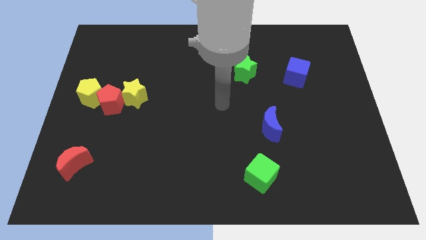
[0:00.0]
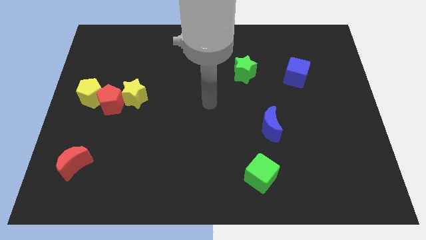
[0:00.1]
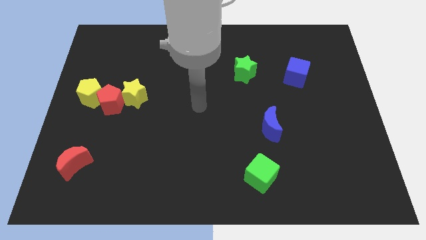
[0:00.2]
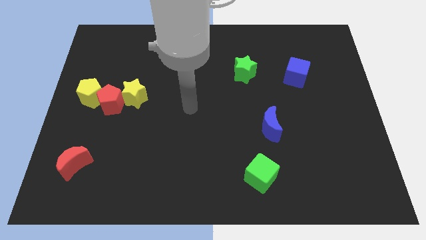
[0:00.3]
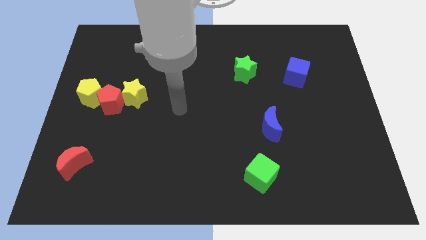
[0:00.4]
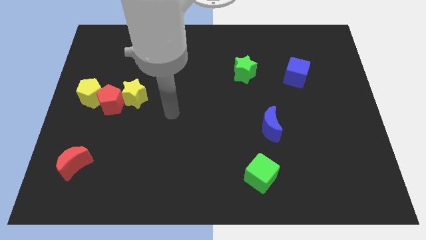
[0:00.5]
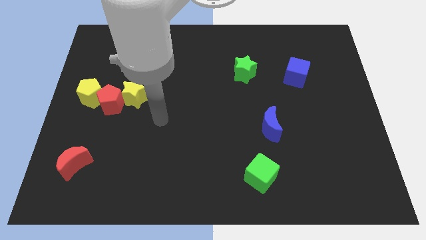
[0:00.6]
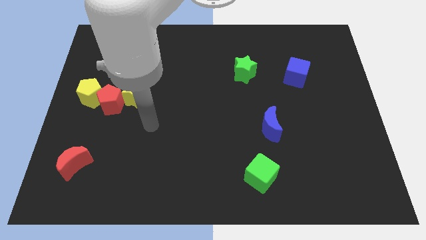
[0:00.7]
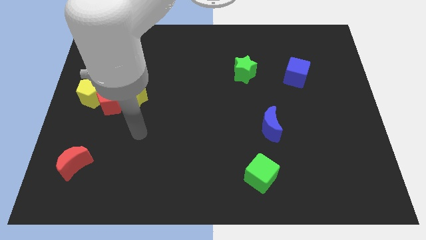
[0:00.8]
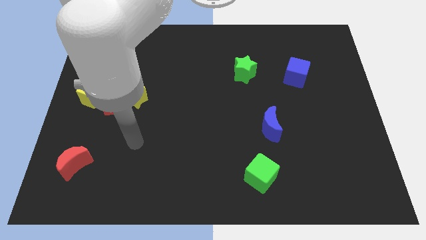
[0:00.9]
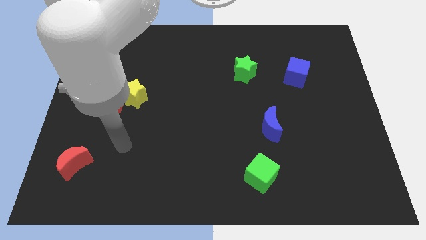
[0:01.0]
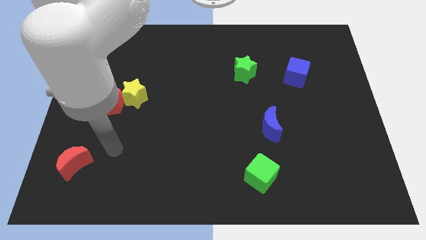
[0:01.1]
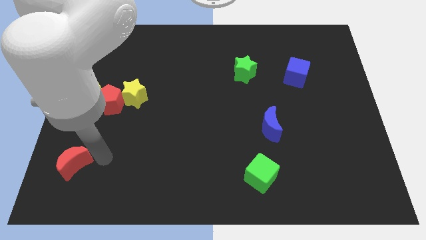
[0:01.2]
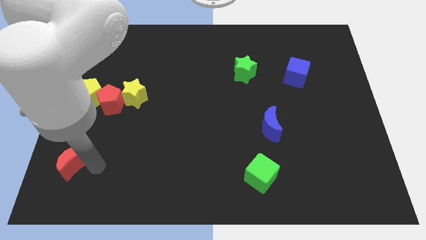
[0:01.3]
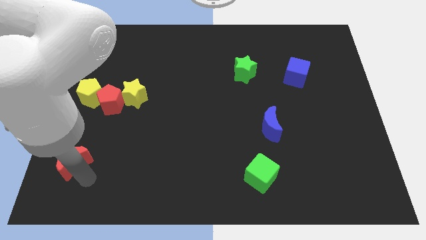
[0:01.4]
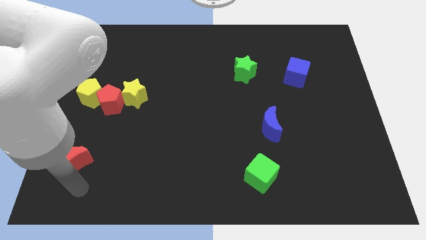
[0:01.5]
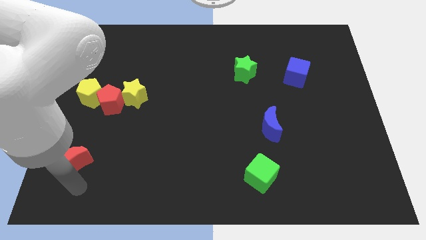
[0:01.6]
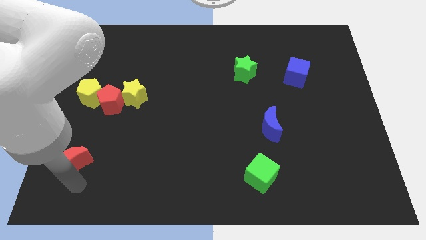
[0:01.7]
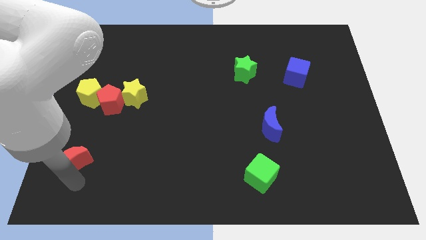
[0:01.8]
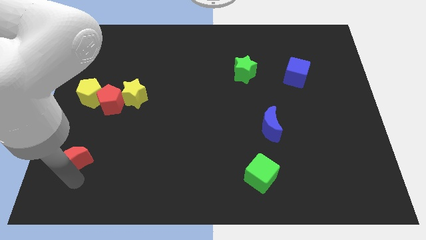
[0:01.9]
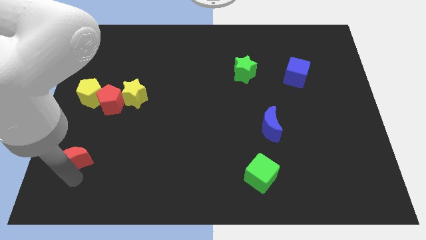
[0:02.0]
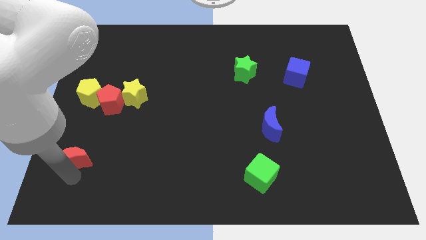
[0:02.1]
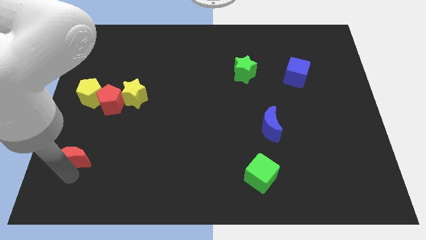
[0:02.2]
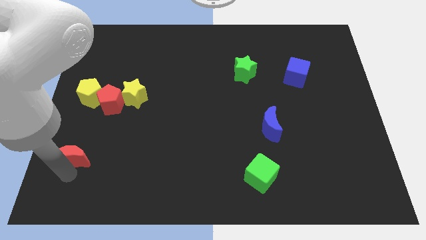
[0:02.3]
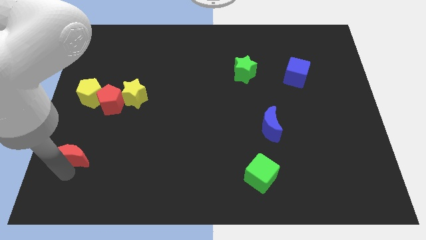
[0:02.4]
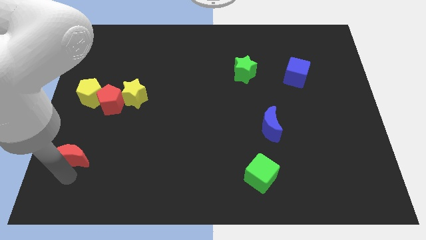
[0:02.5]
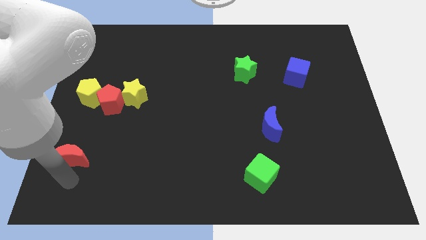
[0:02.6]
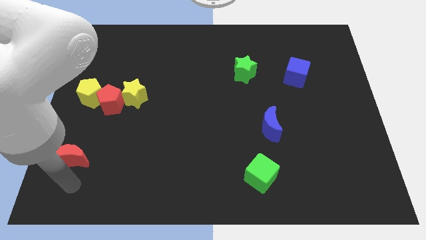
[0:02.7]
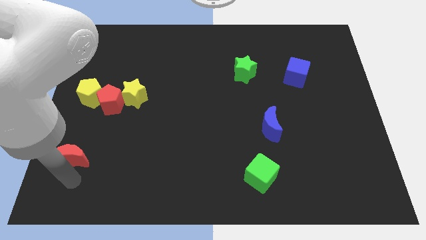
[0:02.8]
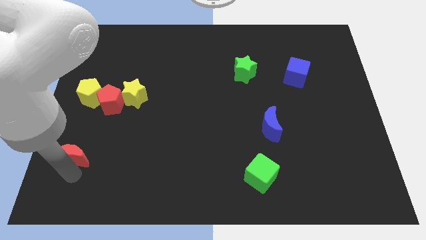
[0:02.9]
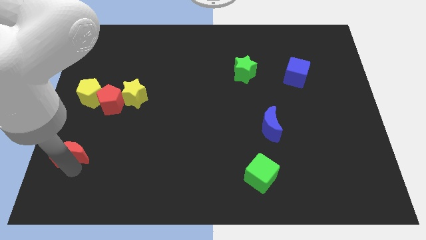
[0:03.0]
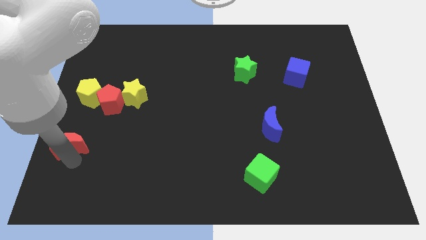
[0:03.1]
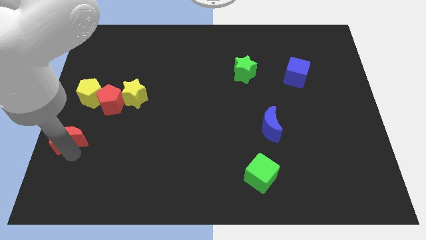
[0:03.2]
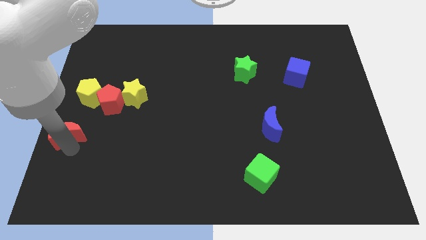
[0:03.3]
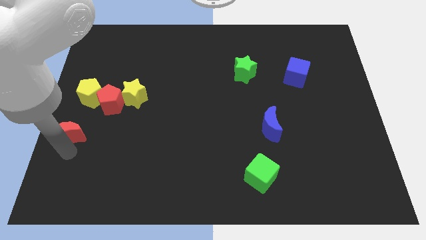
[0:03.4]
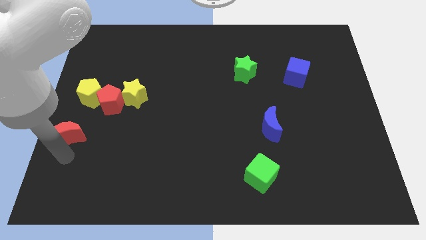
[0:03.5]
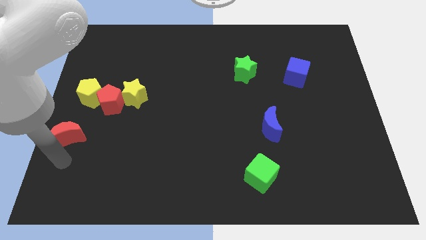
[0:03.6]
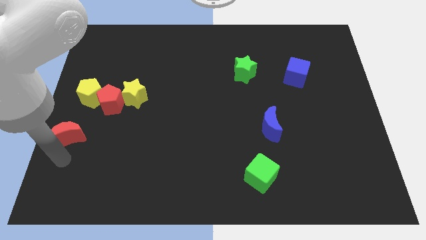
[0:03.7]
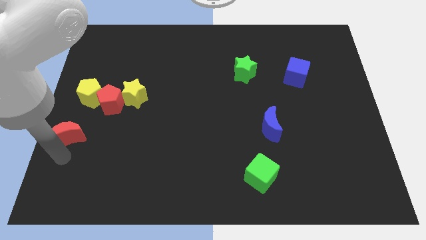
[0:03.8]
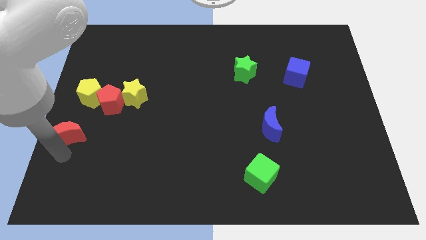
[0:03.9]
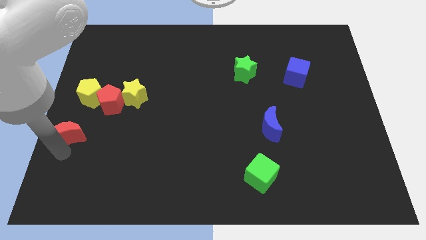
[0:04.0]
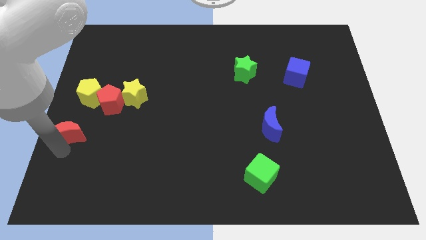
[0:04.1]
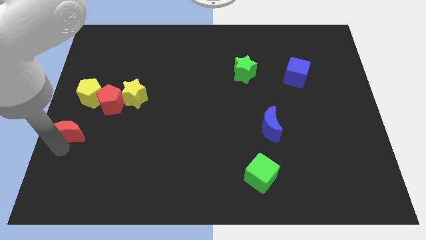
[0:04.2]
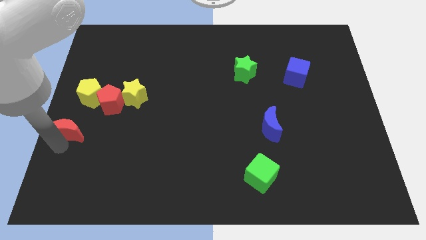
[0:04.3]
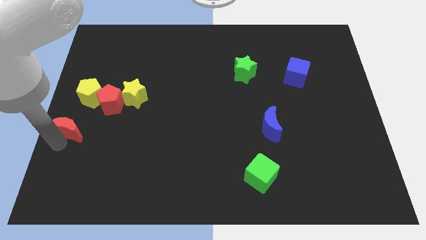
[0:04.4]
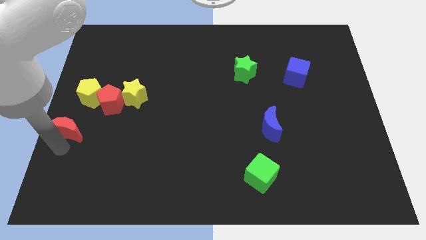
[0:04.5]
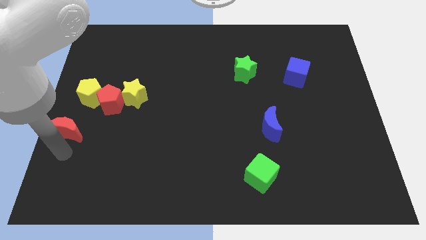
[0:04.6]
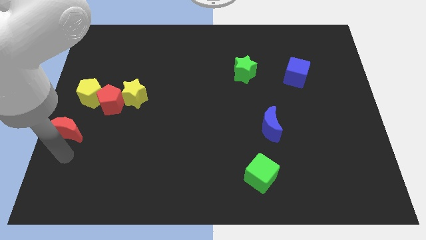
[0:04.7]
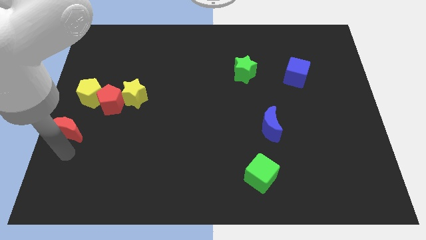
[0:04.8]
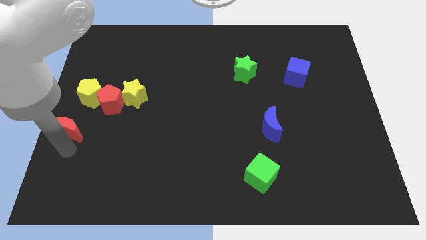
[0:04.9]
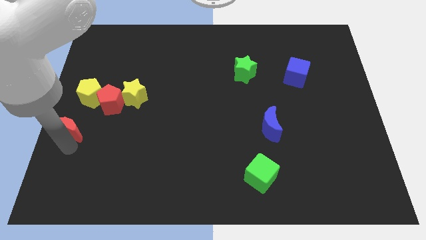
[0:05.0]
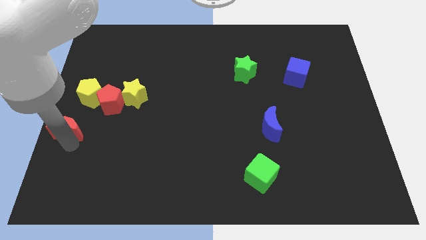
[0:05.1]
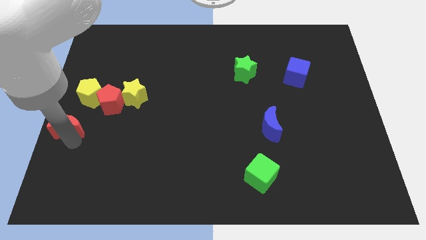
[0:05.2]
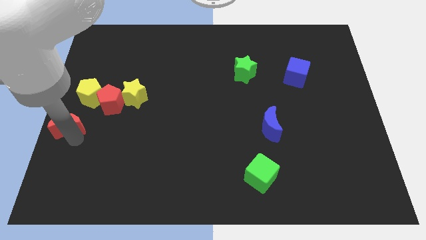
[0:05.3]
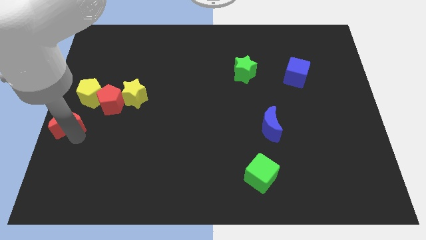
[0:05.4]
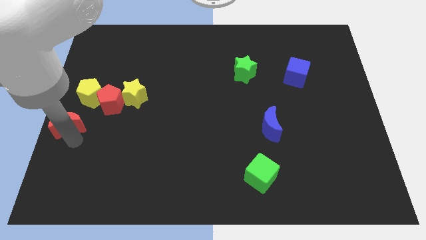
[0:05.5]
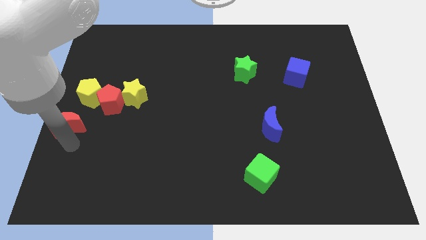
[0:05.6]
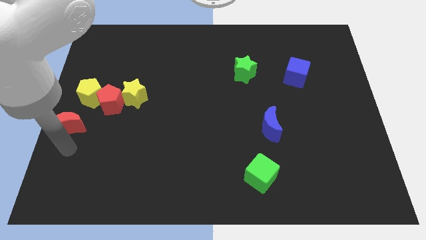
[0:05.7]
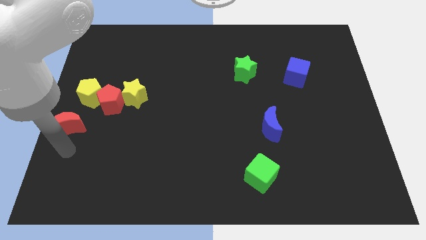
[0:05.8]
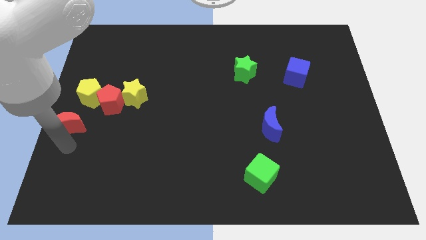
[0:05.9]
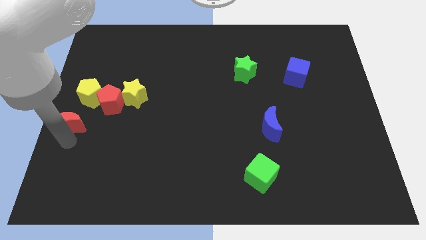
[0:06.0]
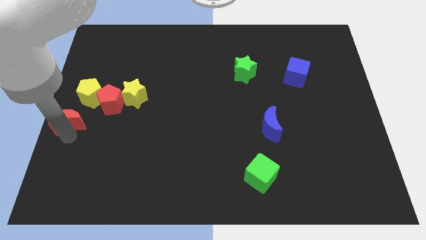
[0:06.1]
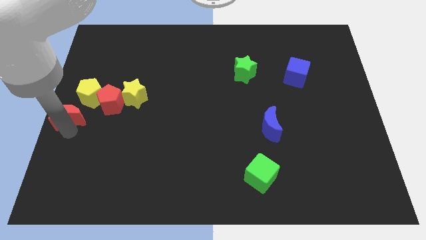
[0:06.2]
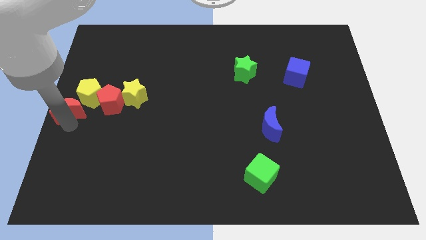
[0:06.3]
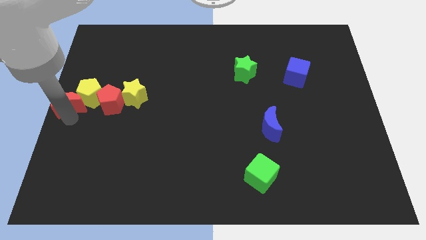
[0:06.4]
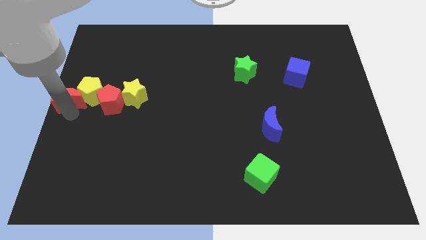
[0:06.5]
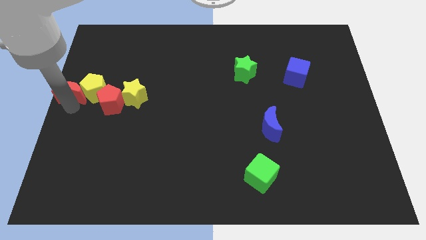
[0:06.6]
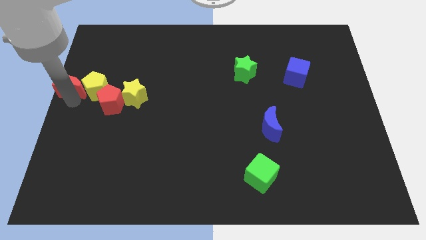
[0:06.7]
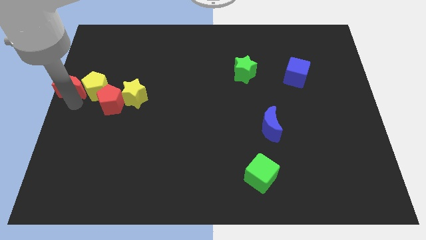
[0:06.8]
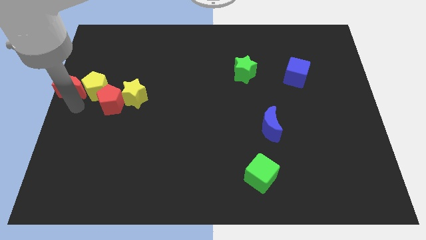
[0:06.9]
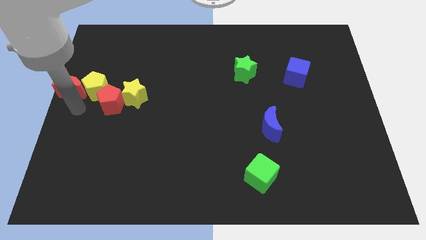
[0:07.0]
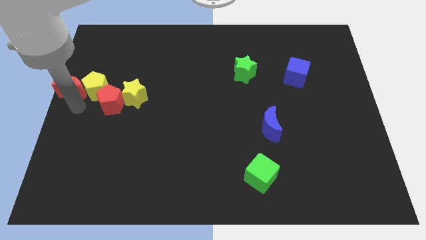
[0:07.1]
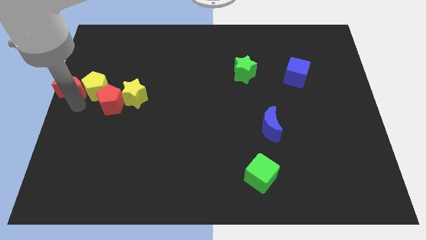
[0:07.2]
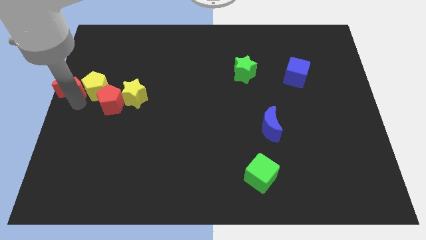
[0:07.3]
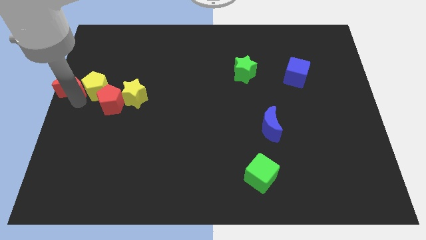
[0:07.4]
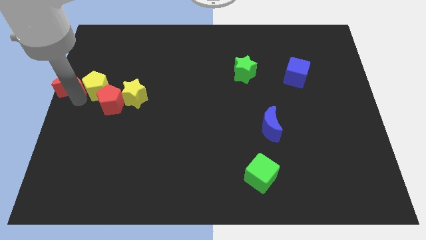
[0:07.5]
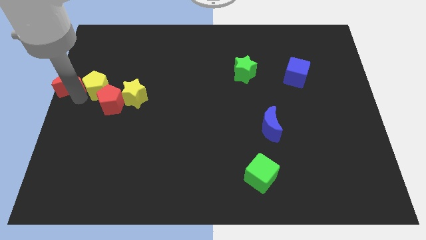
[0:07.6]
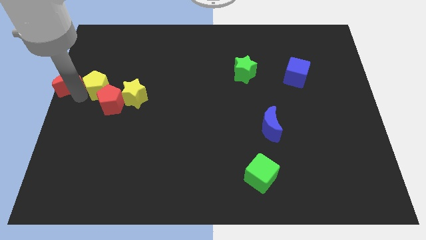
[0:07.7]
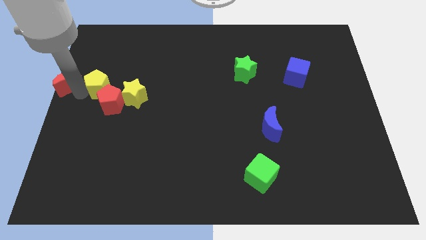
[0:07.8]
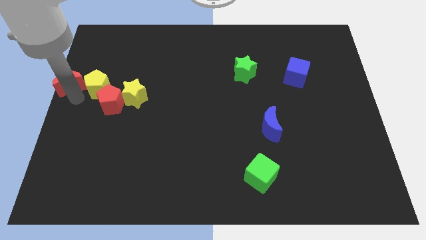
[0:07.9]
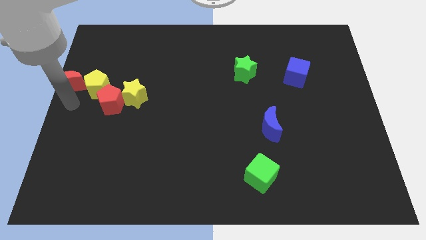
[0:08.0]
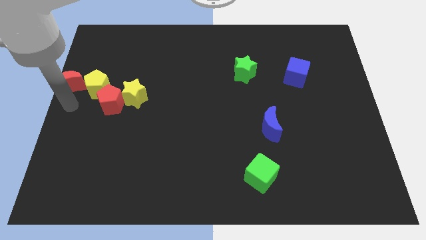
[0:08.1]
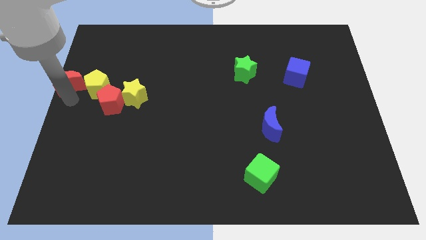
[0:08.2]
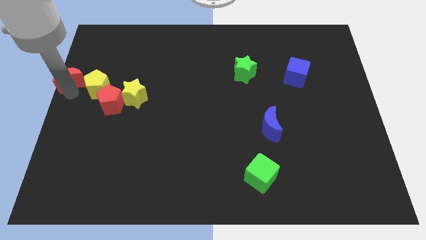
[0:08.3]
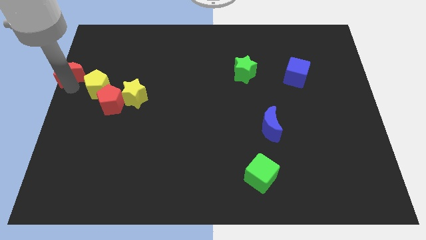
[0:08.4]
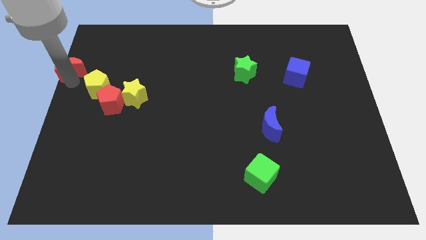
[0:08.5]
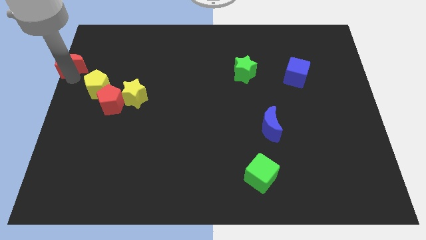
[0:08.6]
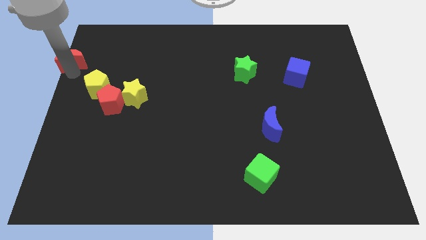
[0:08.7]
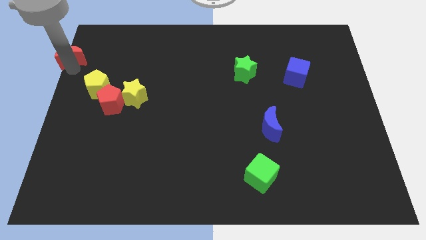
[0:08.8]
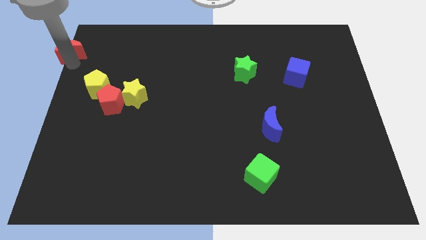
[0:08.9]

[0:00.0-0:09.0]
push the red moon to the top left of the board
